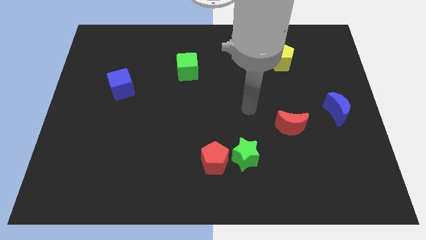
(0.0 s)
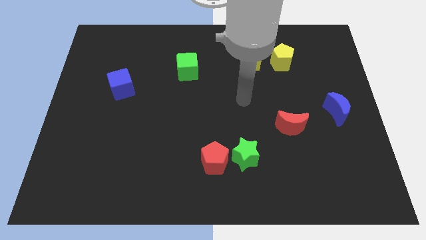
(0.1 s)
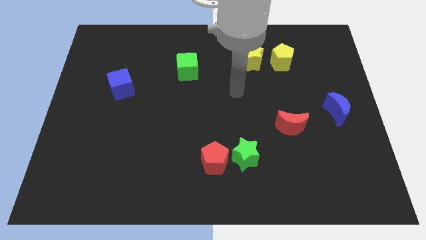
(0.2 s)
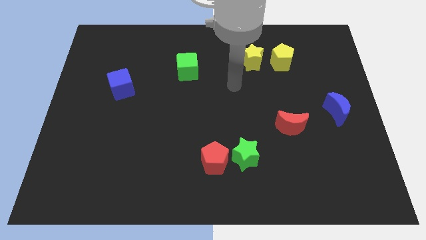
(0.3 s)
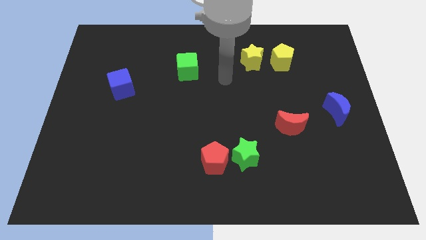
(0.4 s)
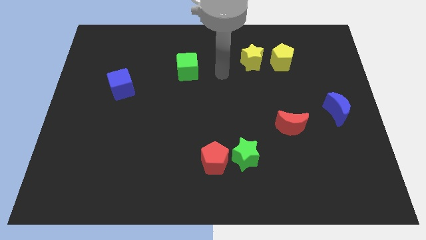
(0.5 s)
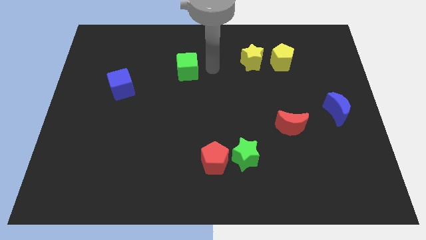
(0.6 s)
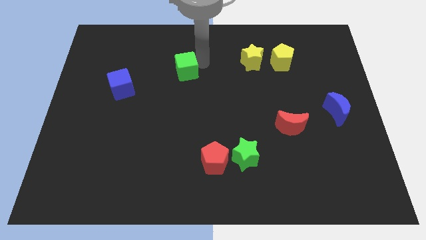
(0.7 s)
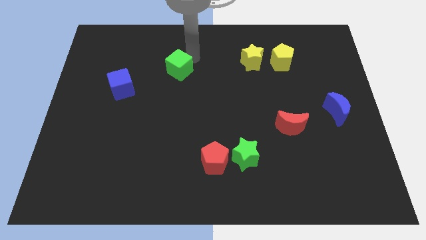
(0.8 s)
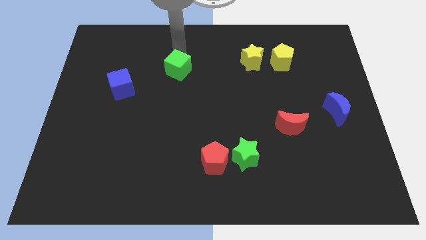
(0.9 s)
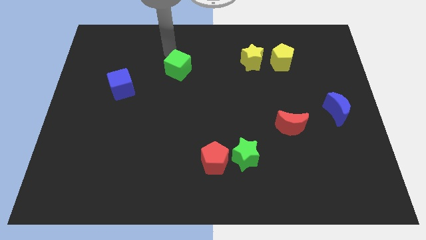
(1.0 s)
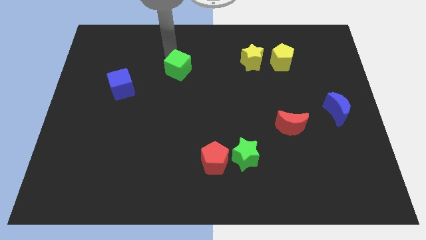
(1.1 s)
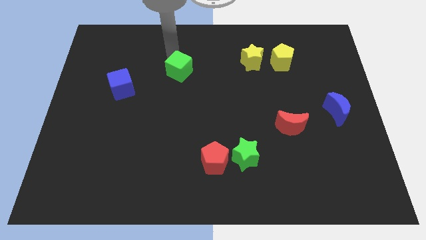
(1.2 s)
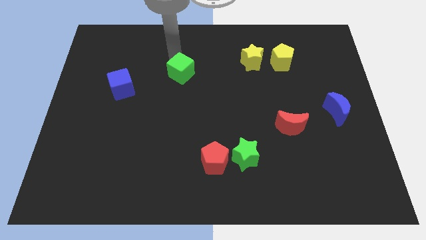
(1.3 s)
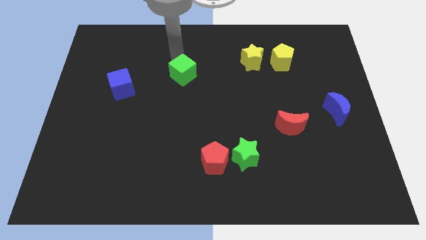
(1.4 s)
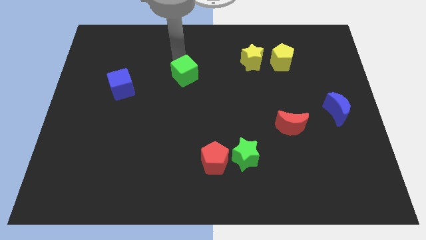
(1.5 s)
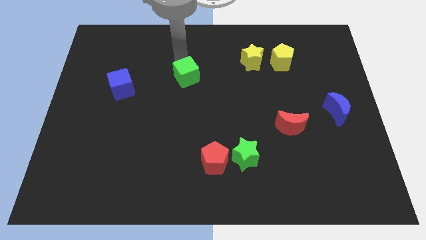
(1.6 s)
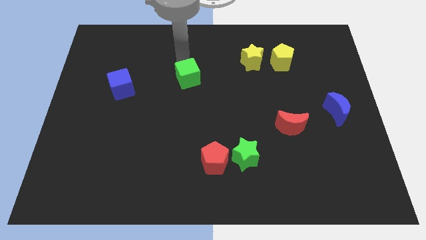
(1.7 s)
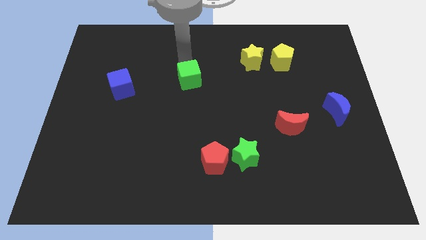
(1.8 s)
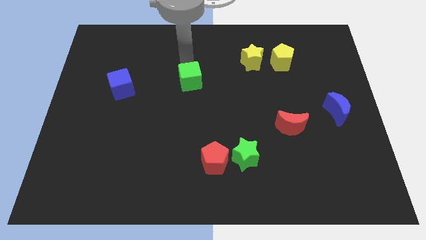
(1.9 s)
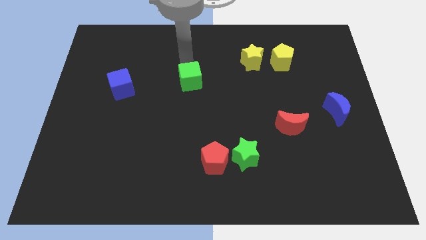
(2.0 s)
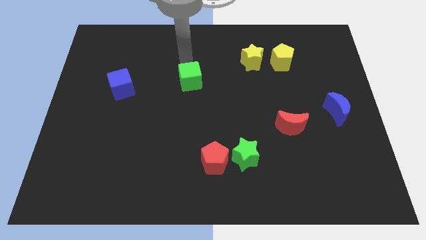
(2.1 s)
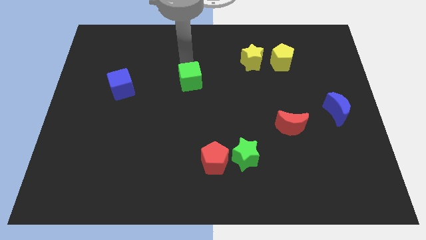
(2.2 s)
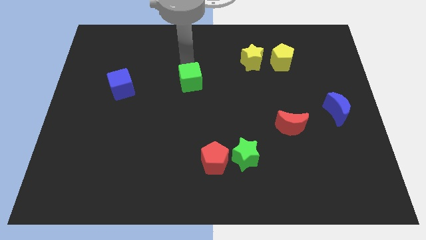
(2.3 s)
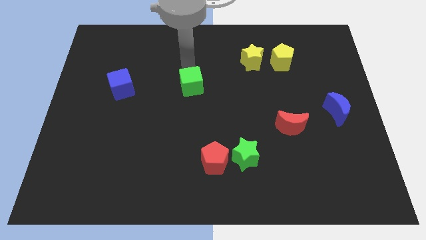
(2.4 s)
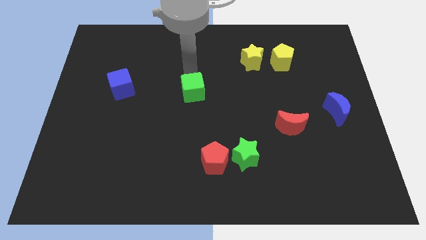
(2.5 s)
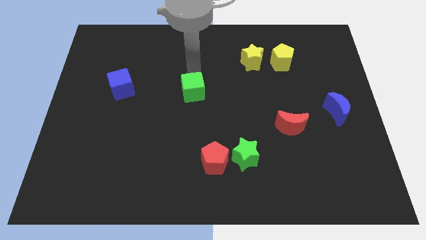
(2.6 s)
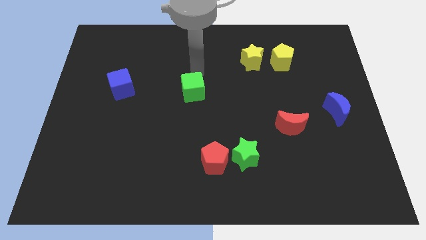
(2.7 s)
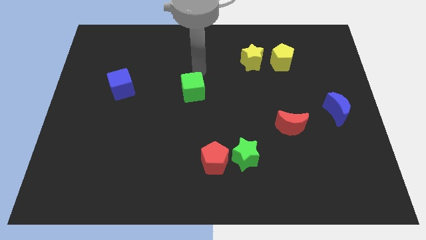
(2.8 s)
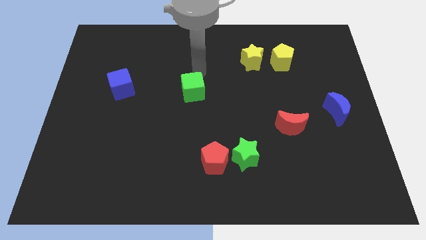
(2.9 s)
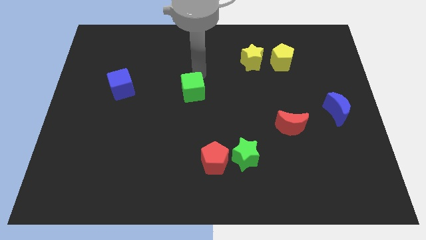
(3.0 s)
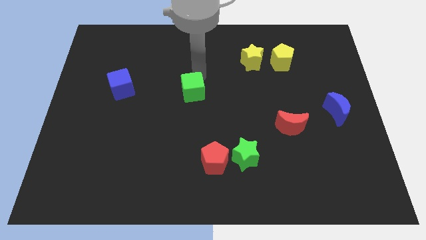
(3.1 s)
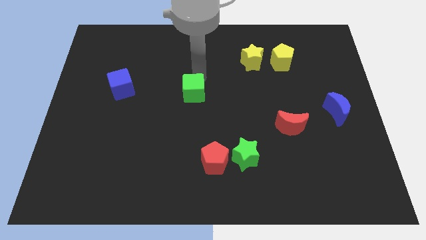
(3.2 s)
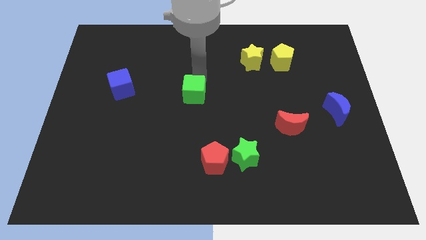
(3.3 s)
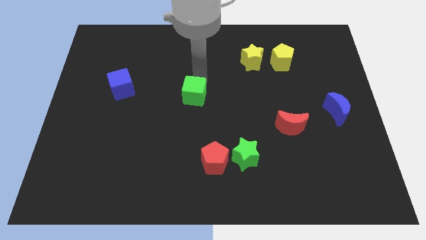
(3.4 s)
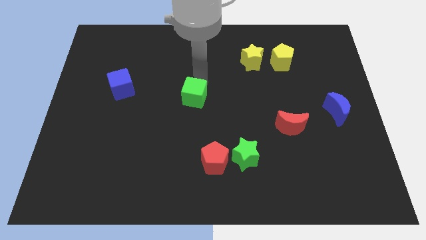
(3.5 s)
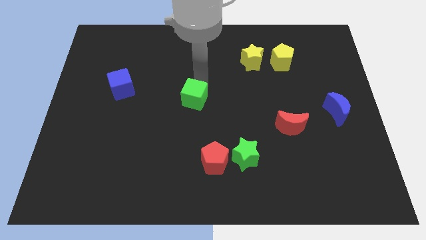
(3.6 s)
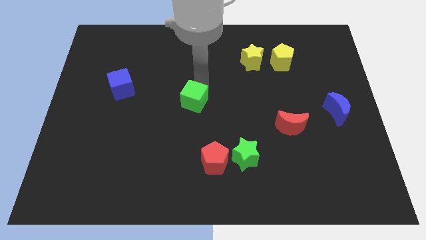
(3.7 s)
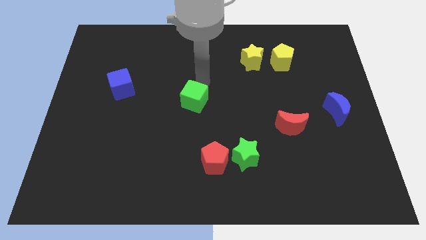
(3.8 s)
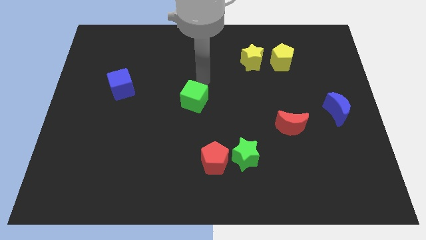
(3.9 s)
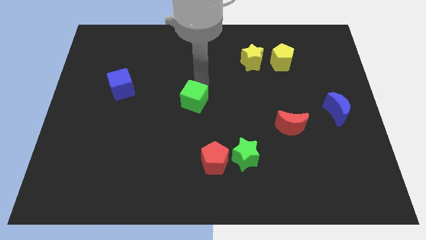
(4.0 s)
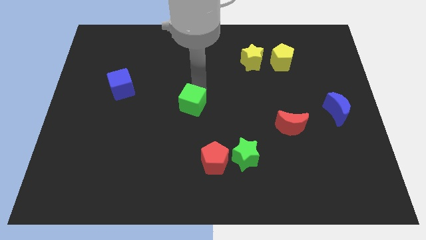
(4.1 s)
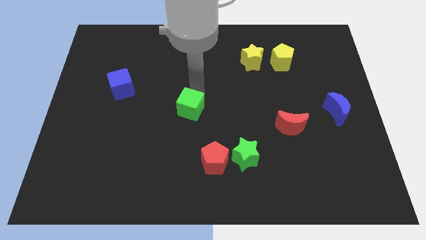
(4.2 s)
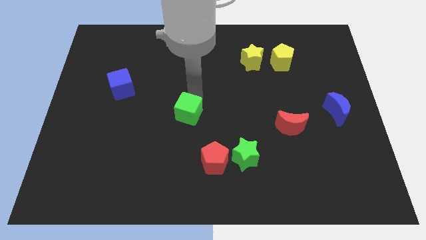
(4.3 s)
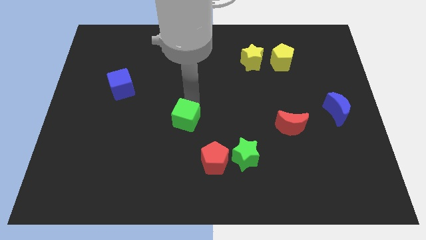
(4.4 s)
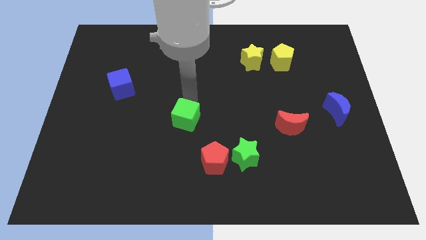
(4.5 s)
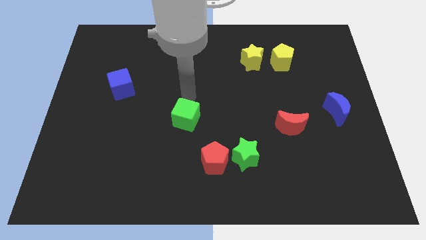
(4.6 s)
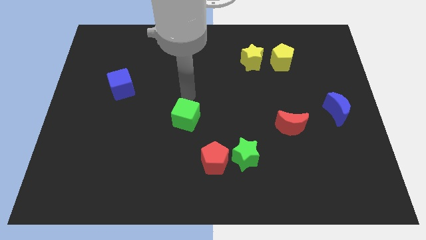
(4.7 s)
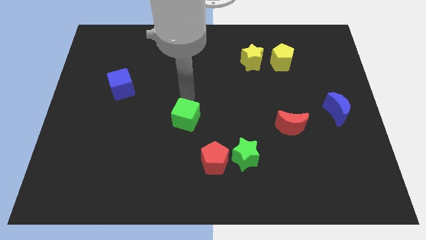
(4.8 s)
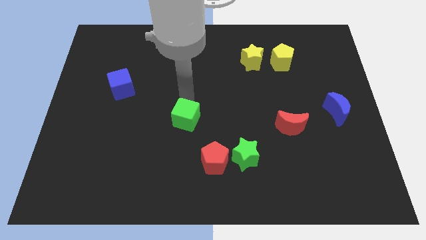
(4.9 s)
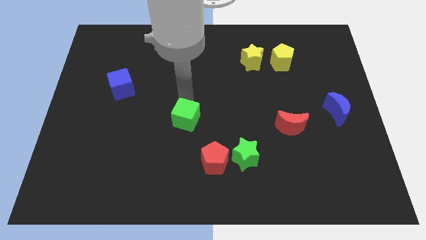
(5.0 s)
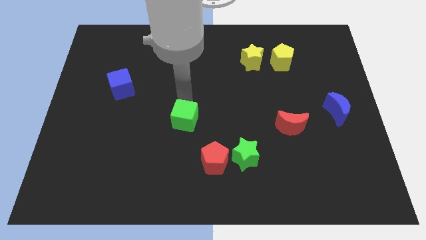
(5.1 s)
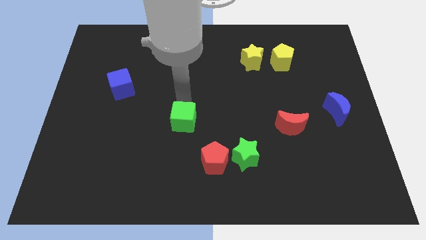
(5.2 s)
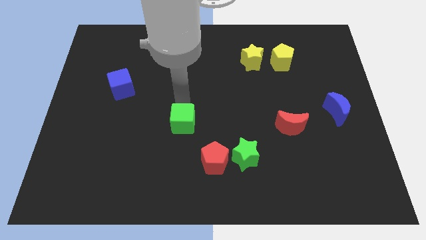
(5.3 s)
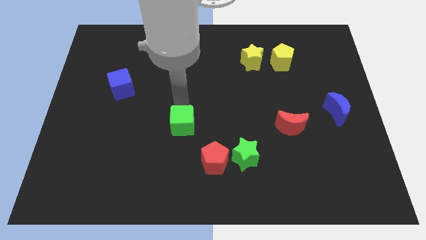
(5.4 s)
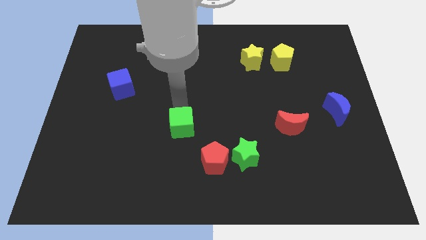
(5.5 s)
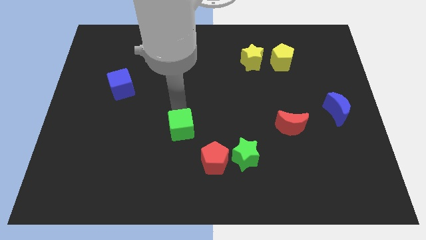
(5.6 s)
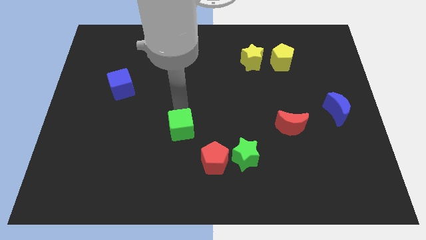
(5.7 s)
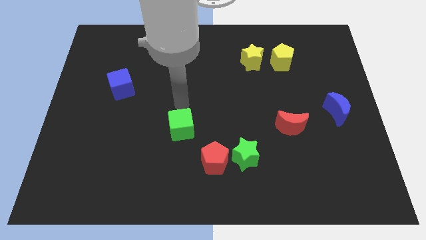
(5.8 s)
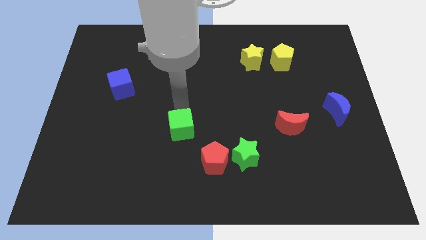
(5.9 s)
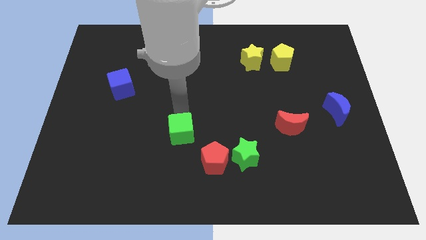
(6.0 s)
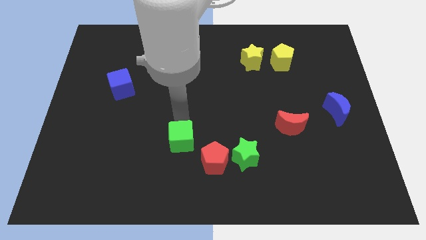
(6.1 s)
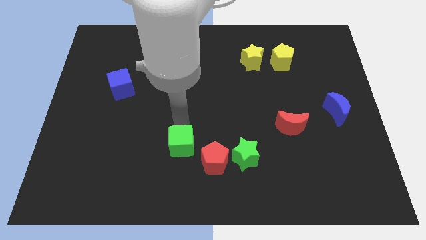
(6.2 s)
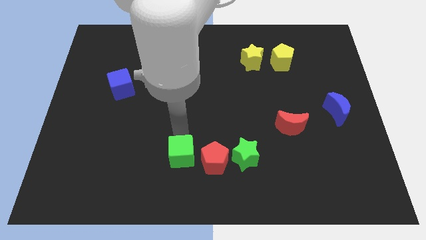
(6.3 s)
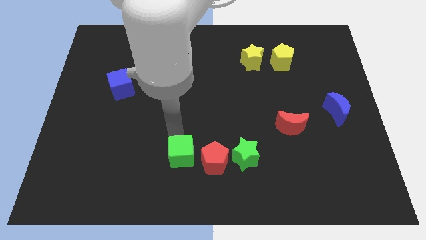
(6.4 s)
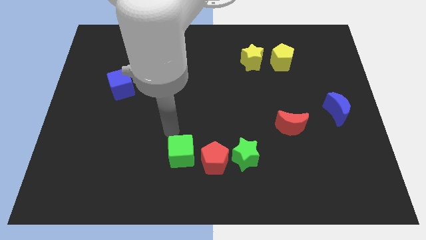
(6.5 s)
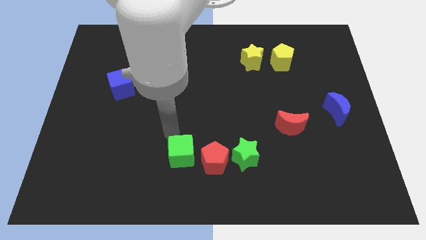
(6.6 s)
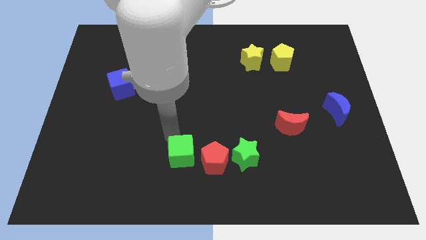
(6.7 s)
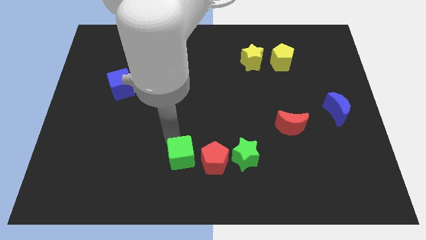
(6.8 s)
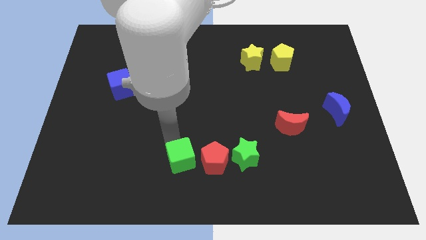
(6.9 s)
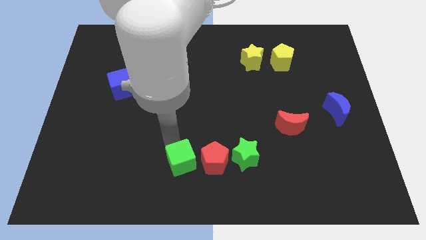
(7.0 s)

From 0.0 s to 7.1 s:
push the green cube to the bottom side

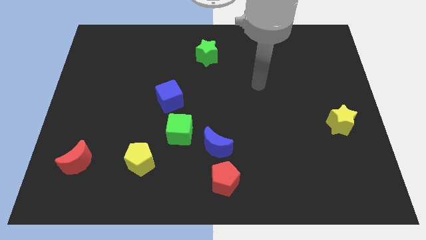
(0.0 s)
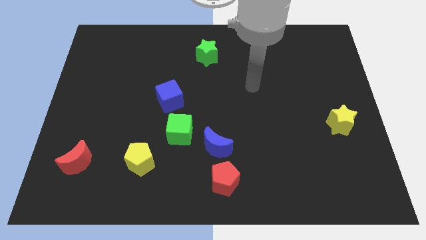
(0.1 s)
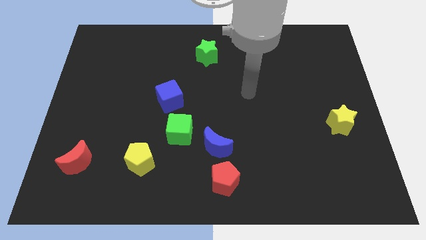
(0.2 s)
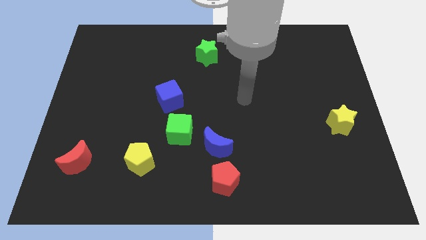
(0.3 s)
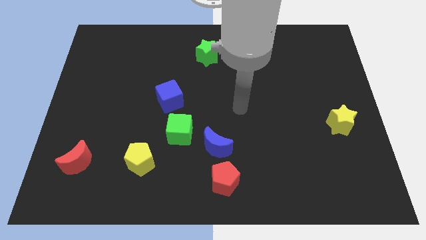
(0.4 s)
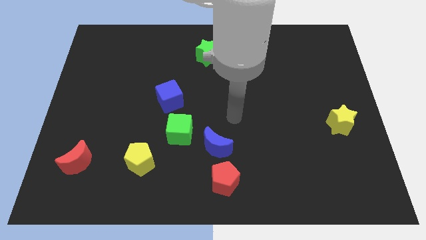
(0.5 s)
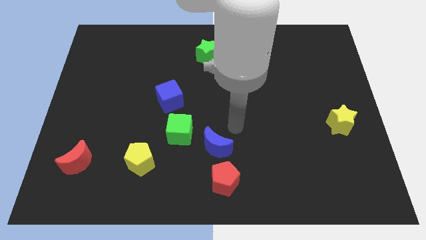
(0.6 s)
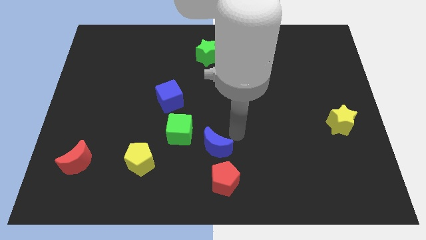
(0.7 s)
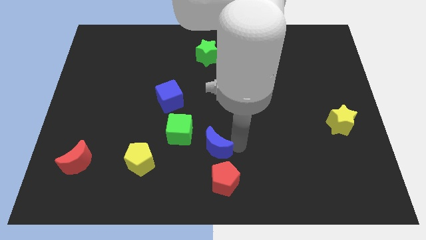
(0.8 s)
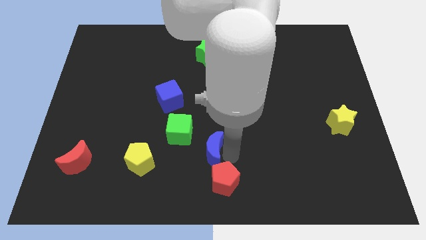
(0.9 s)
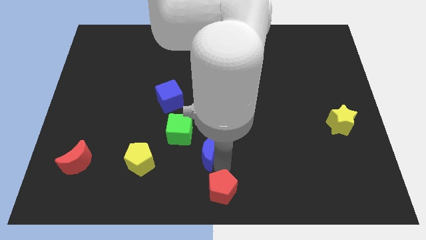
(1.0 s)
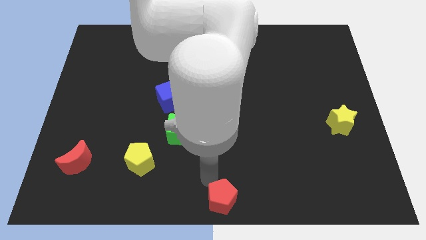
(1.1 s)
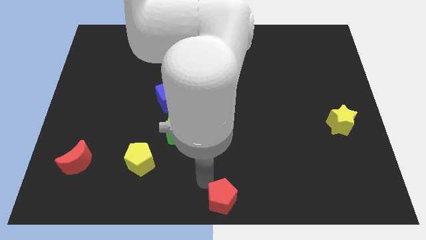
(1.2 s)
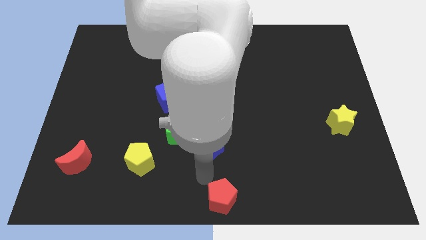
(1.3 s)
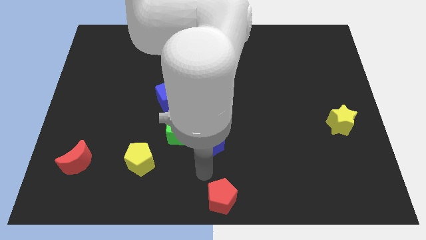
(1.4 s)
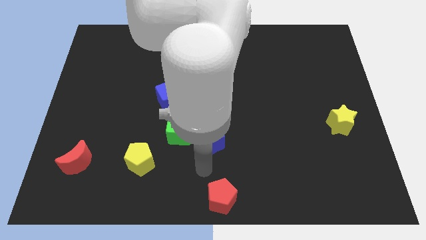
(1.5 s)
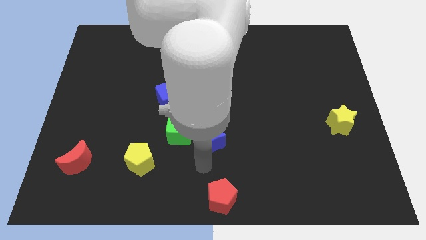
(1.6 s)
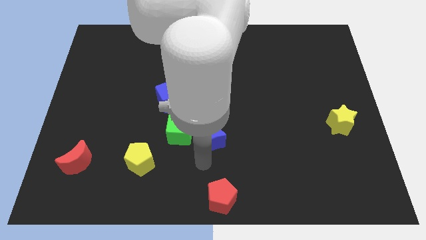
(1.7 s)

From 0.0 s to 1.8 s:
push the blue moon to the middle
